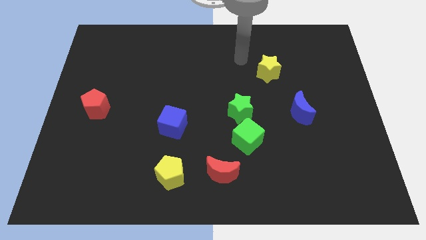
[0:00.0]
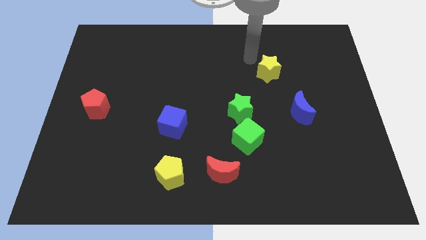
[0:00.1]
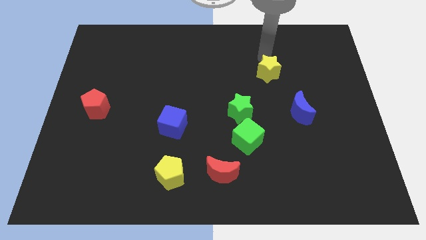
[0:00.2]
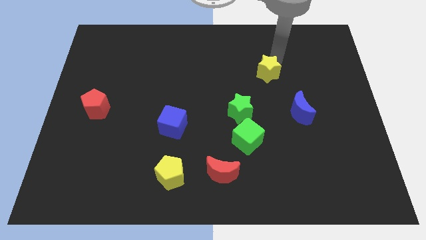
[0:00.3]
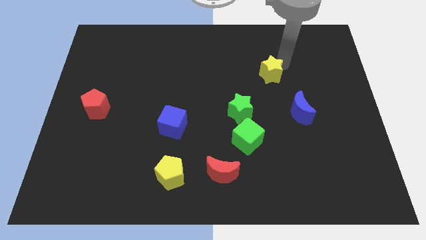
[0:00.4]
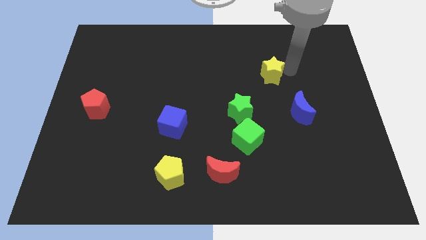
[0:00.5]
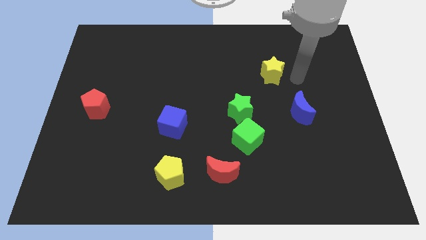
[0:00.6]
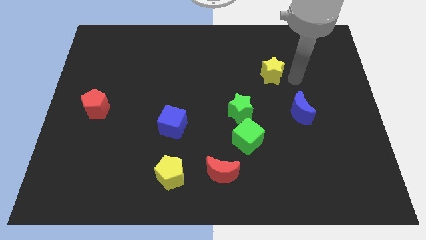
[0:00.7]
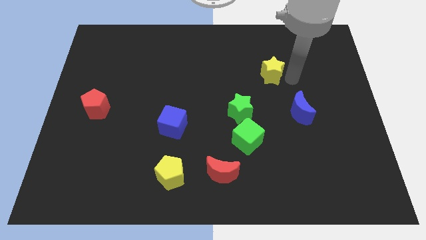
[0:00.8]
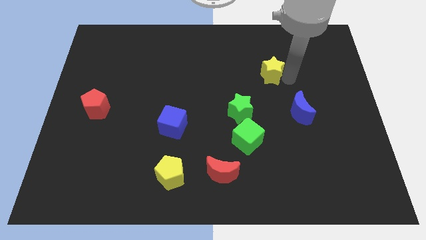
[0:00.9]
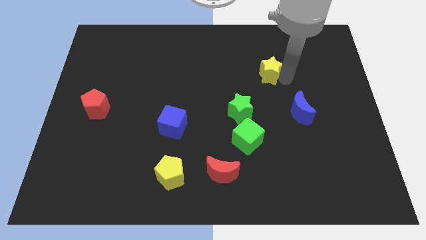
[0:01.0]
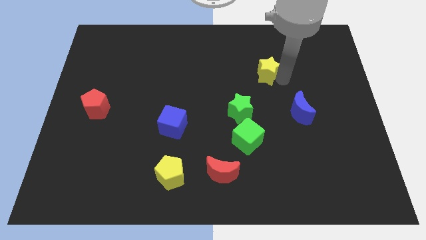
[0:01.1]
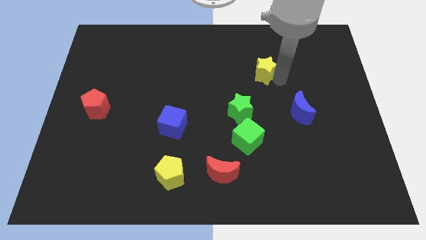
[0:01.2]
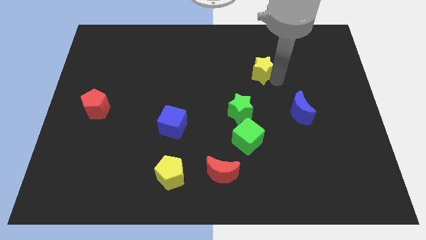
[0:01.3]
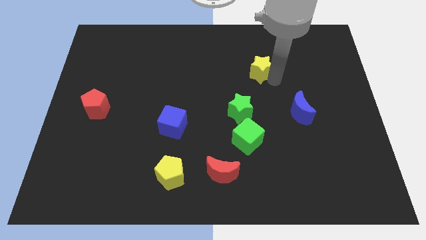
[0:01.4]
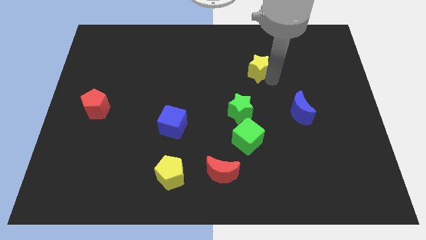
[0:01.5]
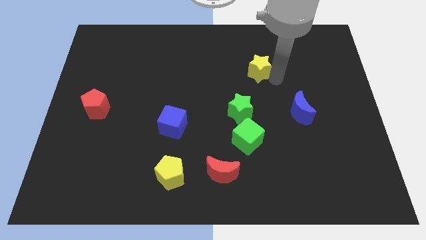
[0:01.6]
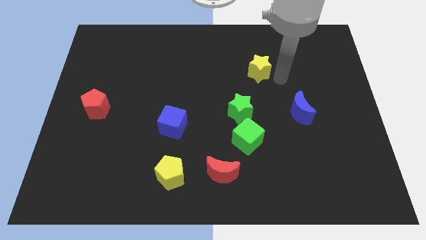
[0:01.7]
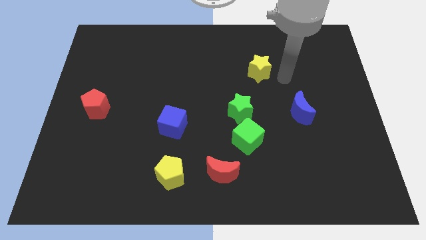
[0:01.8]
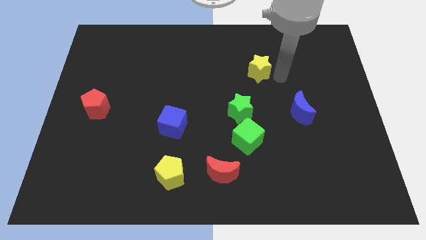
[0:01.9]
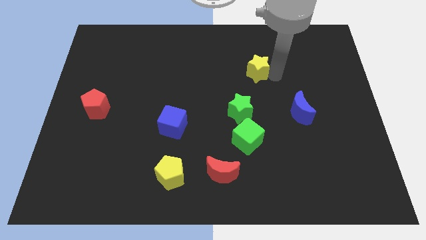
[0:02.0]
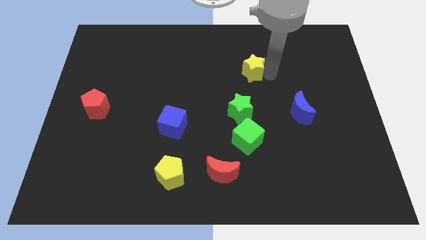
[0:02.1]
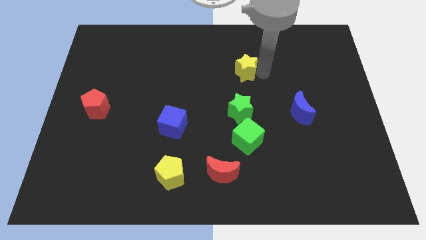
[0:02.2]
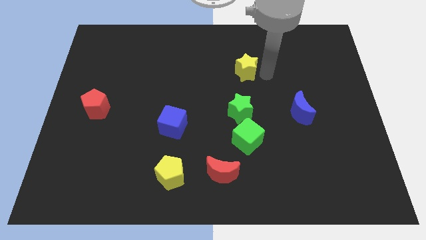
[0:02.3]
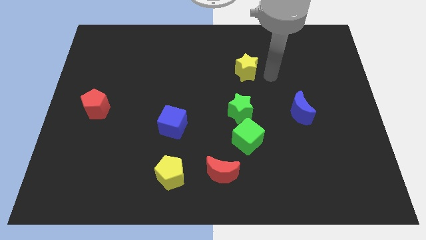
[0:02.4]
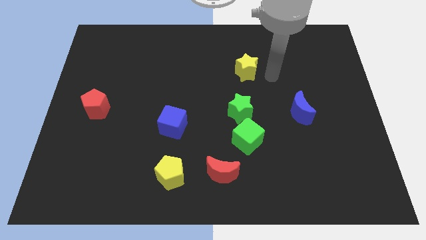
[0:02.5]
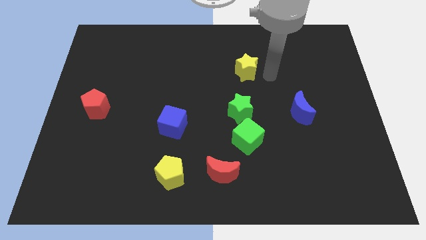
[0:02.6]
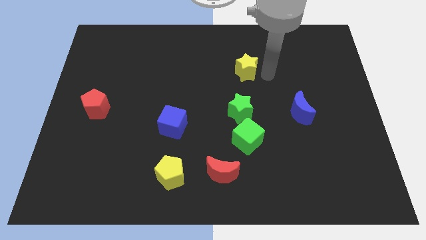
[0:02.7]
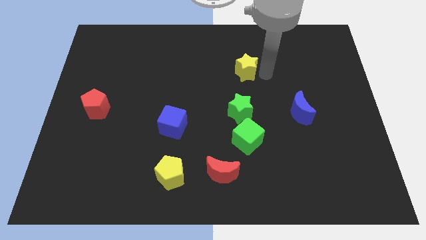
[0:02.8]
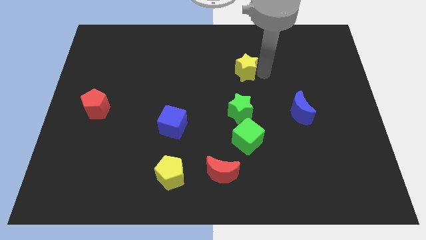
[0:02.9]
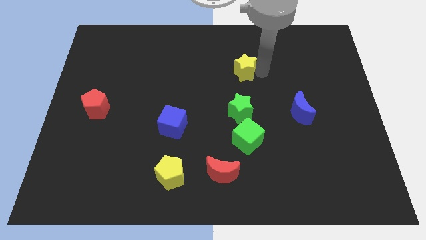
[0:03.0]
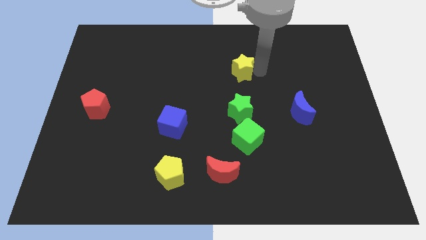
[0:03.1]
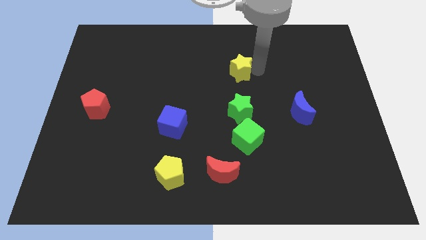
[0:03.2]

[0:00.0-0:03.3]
slide the yellow star somewhat to the left

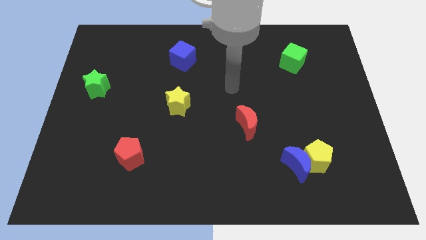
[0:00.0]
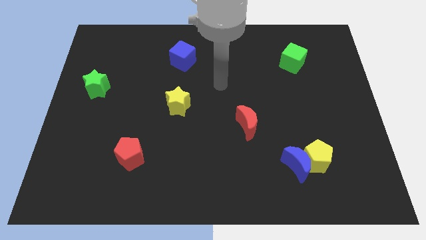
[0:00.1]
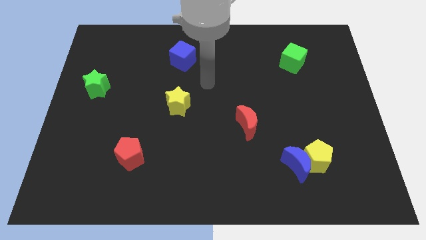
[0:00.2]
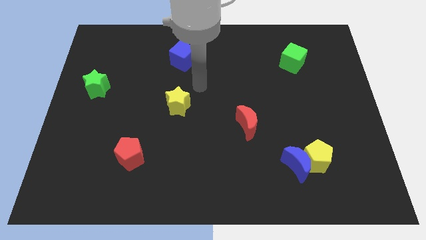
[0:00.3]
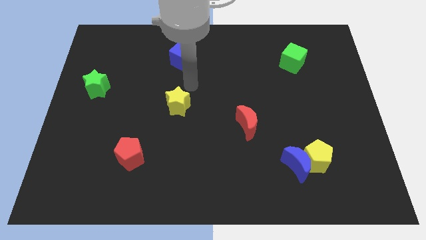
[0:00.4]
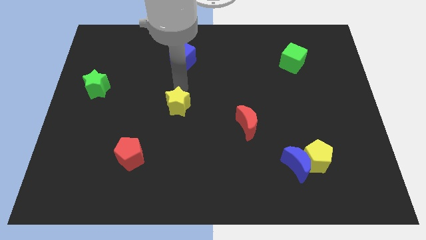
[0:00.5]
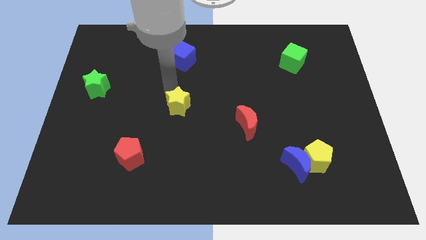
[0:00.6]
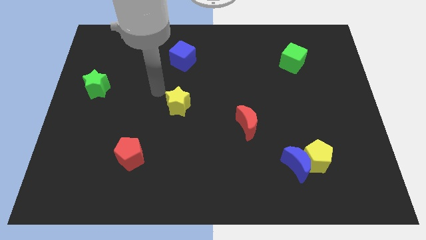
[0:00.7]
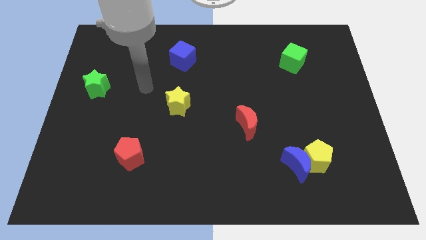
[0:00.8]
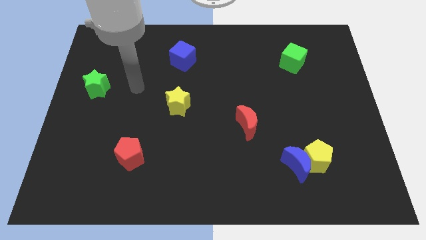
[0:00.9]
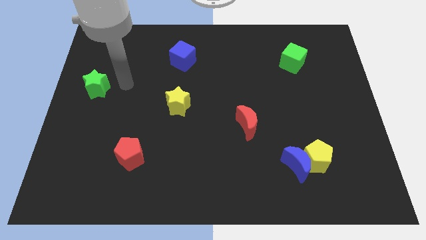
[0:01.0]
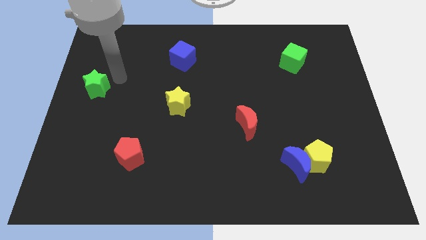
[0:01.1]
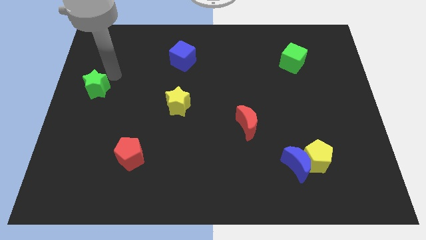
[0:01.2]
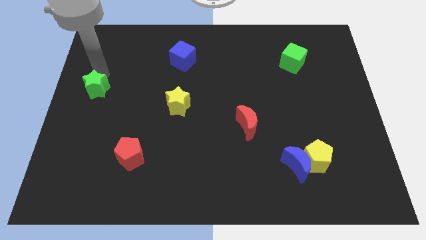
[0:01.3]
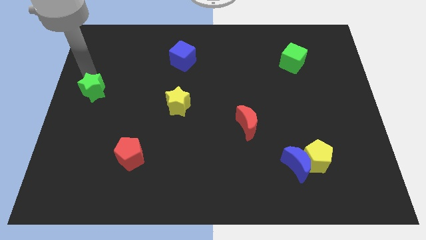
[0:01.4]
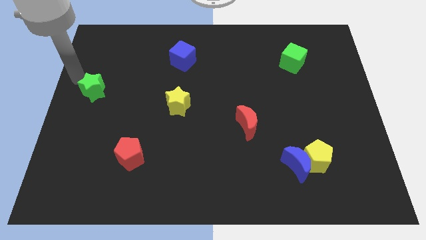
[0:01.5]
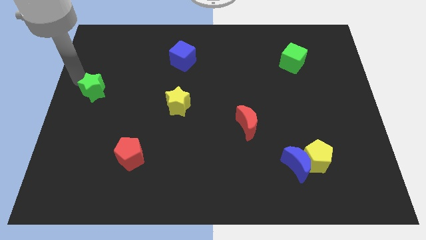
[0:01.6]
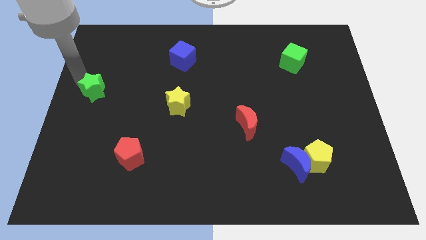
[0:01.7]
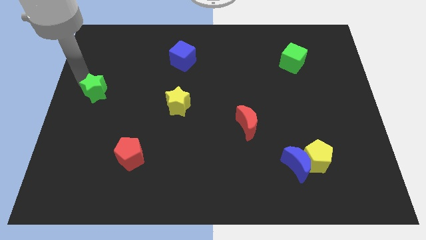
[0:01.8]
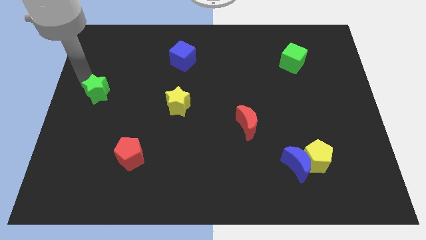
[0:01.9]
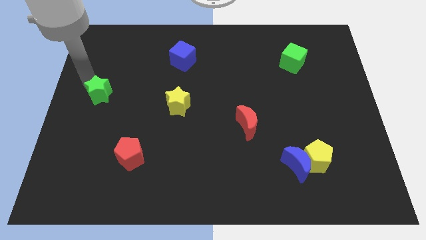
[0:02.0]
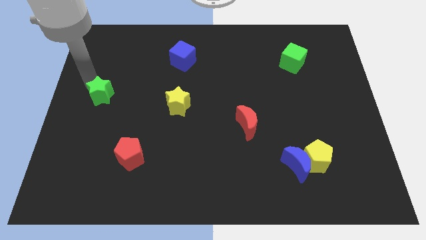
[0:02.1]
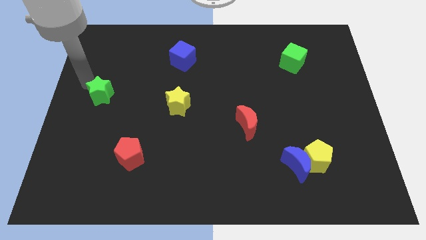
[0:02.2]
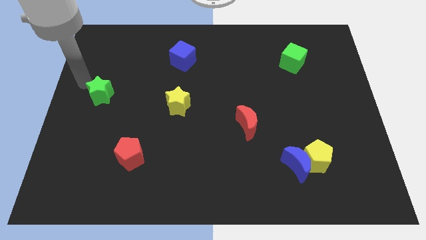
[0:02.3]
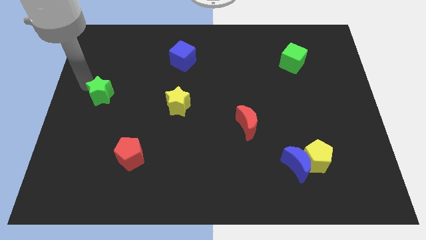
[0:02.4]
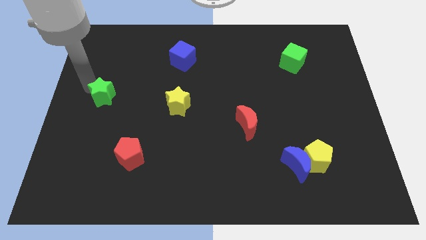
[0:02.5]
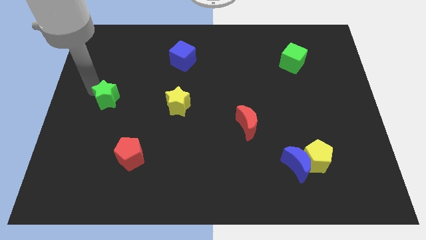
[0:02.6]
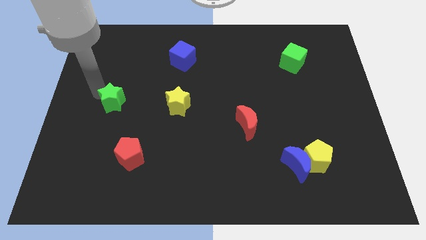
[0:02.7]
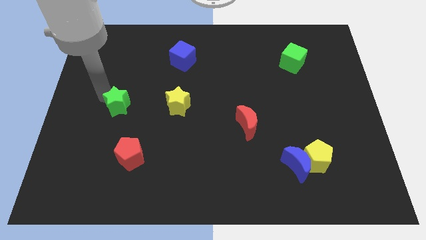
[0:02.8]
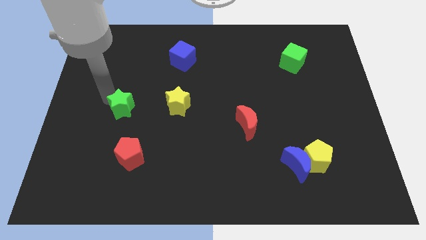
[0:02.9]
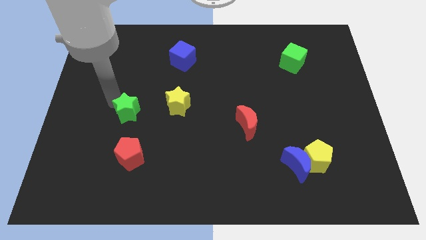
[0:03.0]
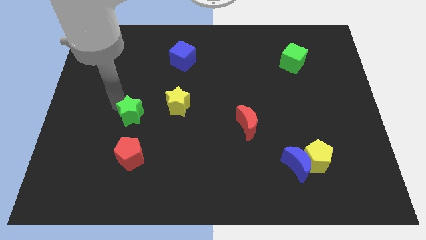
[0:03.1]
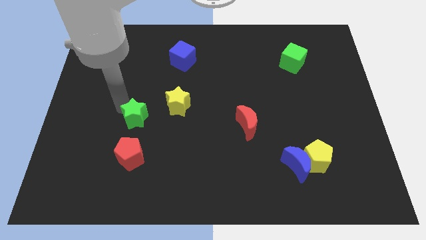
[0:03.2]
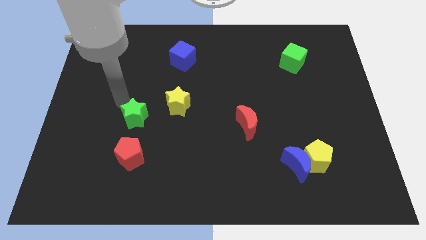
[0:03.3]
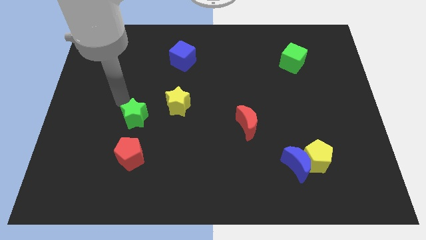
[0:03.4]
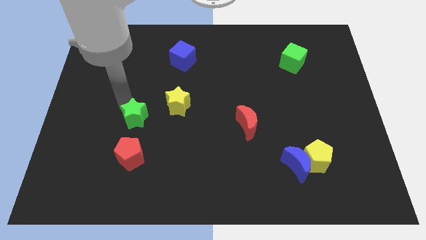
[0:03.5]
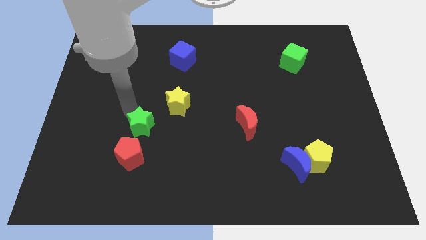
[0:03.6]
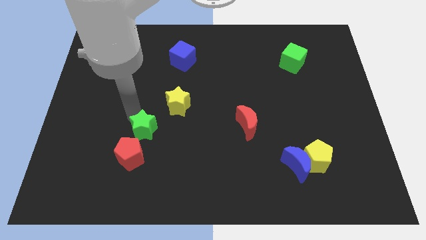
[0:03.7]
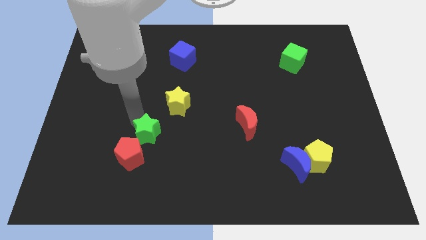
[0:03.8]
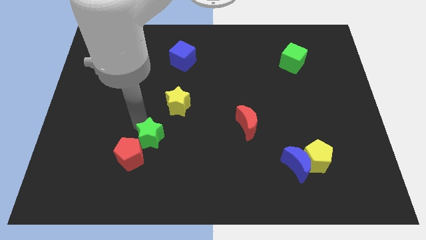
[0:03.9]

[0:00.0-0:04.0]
slide the green star downwards and then to the right

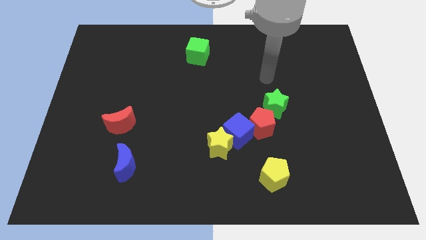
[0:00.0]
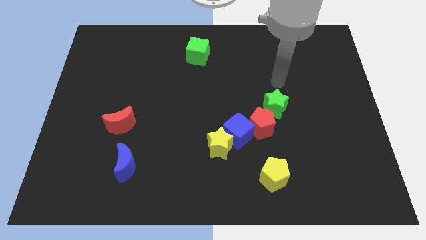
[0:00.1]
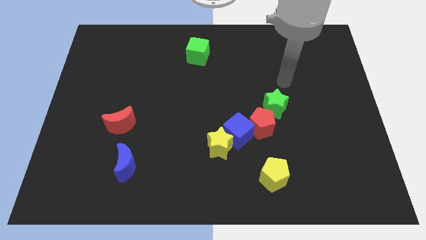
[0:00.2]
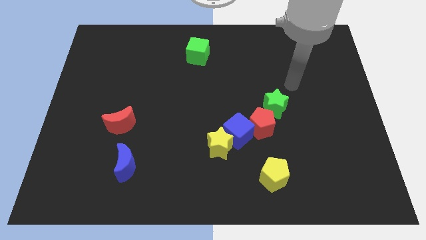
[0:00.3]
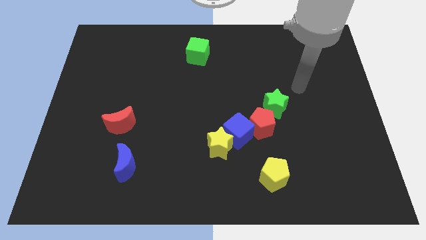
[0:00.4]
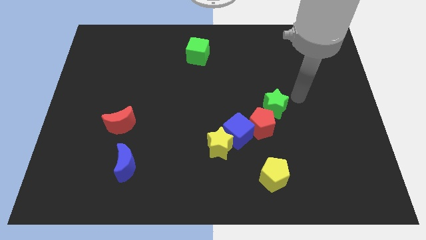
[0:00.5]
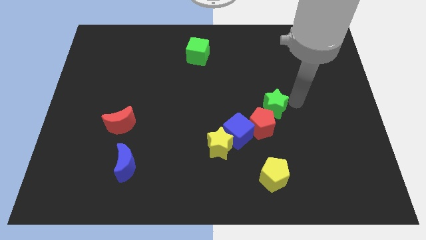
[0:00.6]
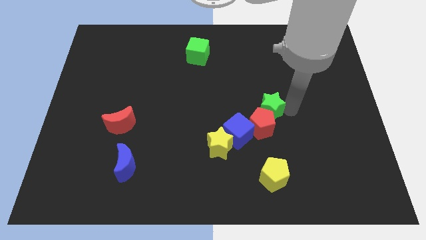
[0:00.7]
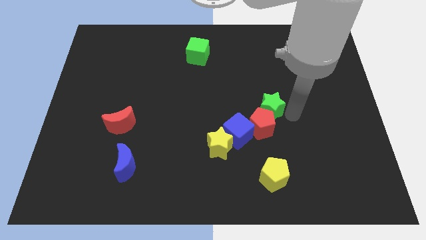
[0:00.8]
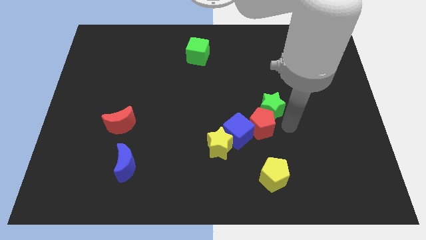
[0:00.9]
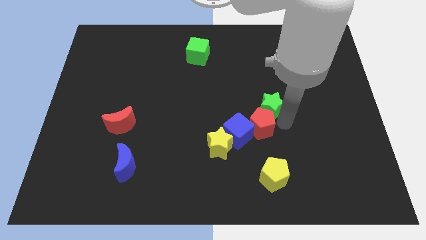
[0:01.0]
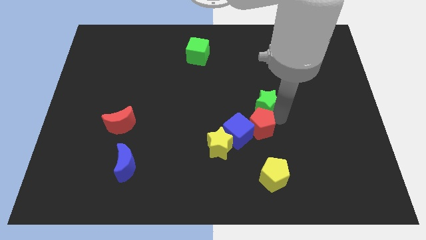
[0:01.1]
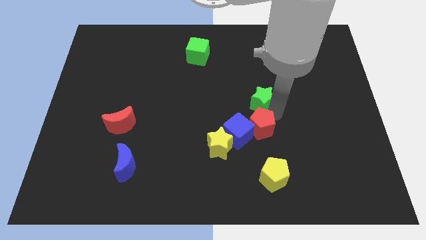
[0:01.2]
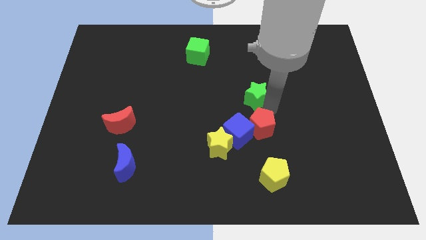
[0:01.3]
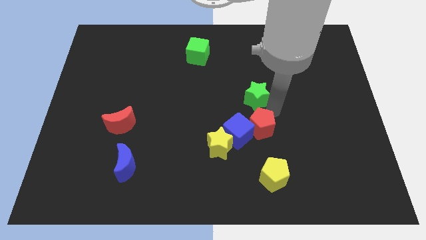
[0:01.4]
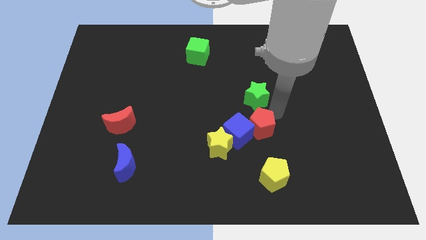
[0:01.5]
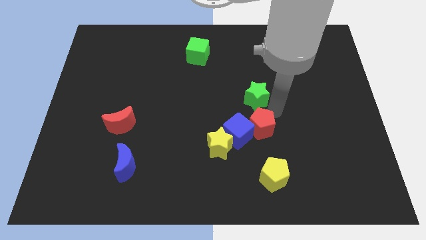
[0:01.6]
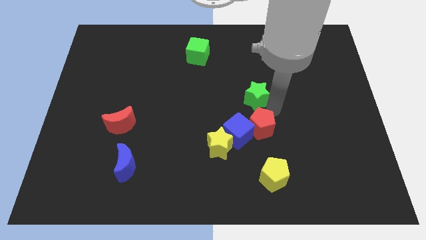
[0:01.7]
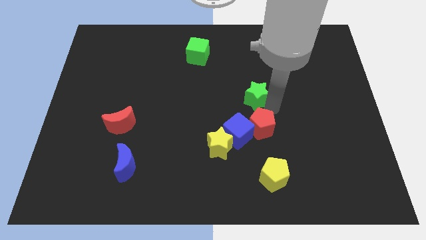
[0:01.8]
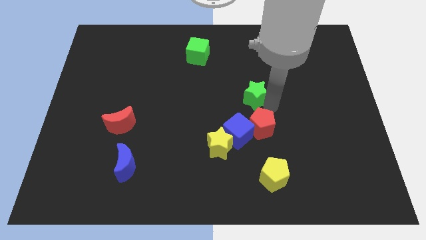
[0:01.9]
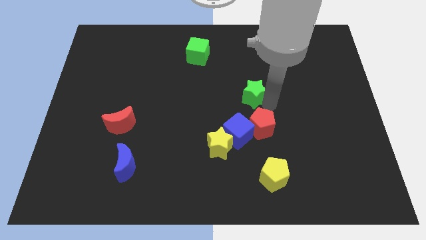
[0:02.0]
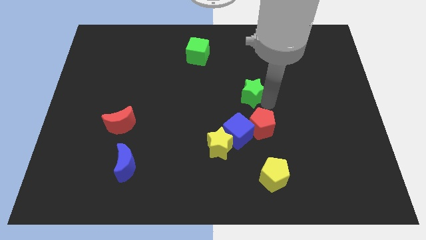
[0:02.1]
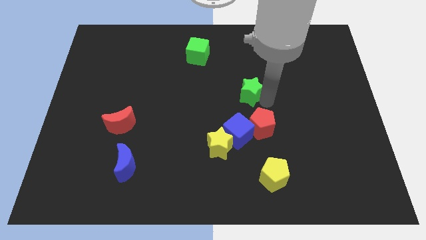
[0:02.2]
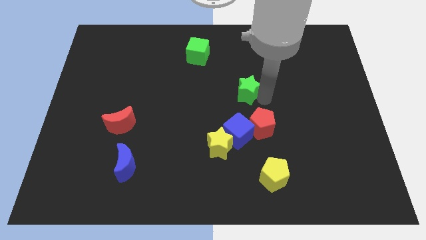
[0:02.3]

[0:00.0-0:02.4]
move the green star somewhat diagonally upwards and left
